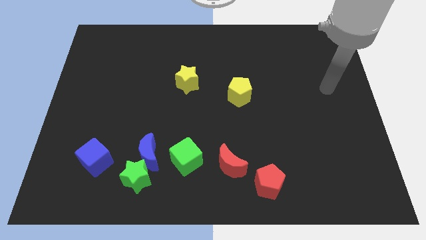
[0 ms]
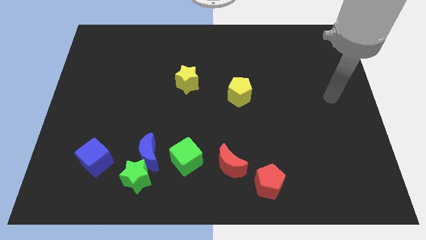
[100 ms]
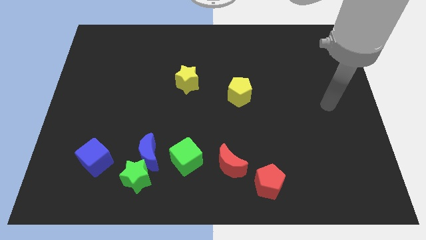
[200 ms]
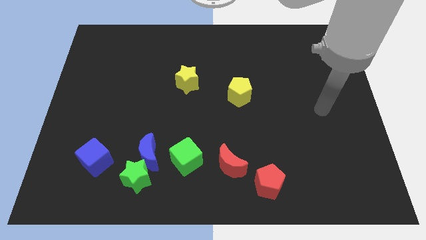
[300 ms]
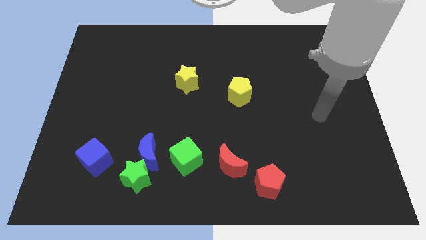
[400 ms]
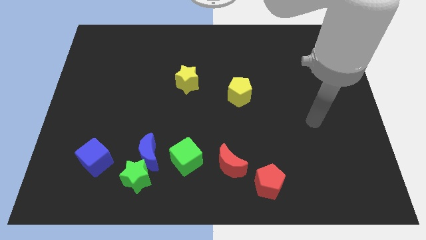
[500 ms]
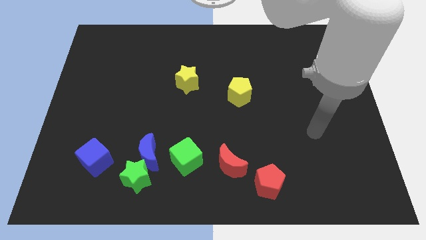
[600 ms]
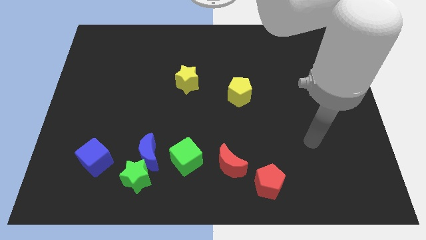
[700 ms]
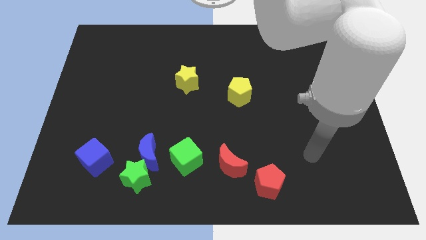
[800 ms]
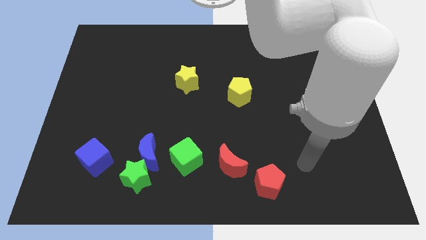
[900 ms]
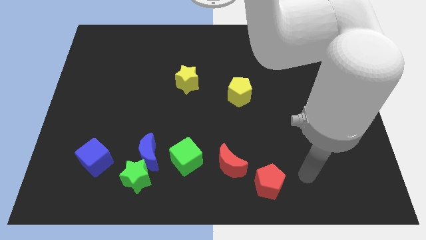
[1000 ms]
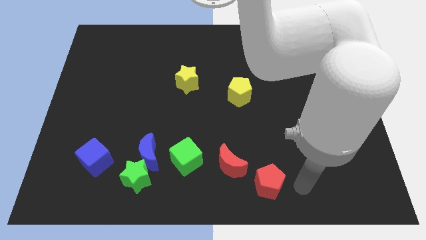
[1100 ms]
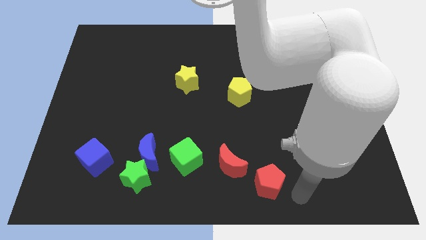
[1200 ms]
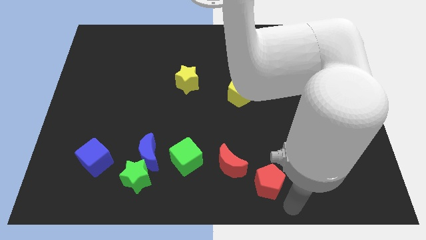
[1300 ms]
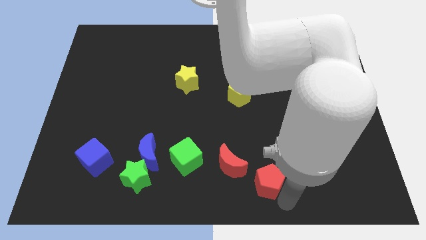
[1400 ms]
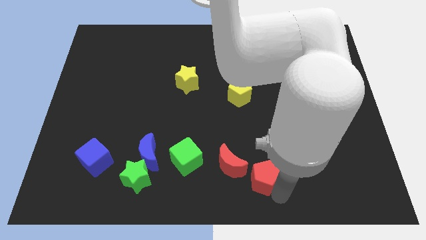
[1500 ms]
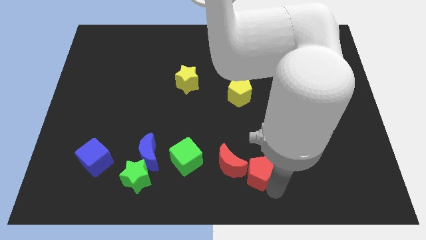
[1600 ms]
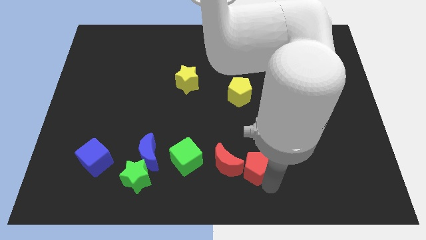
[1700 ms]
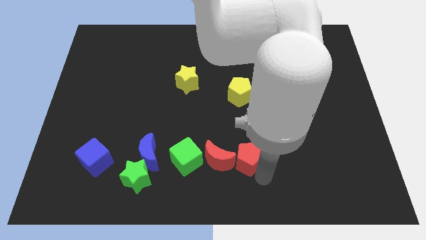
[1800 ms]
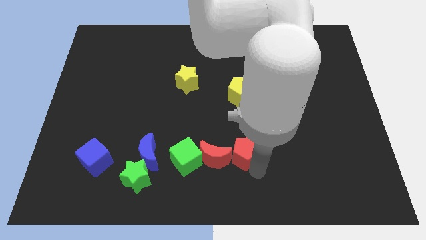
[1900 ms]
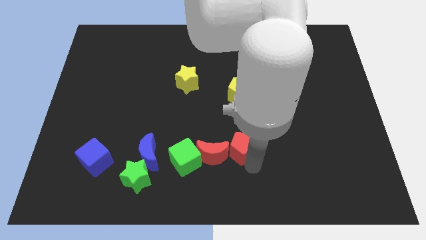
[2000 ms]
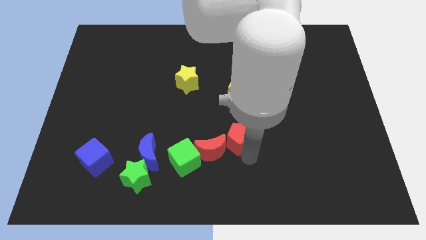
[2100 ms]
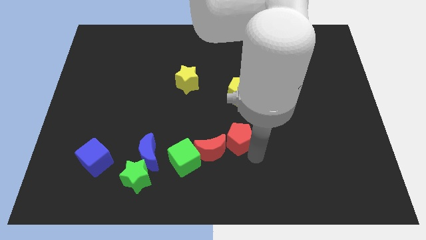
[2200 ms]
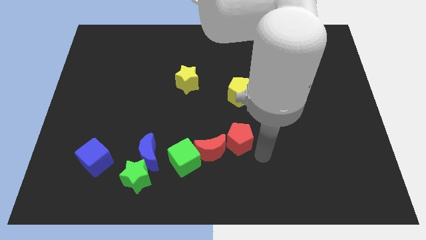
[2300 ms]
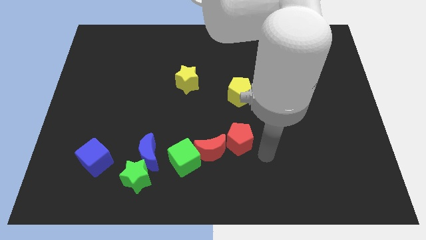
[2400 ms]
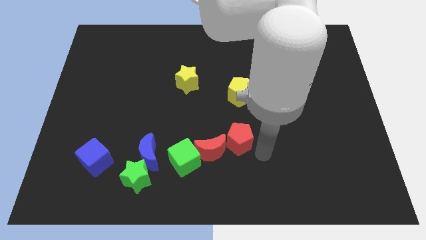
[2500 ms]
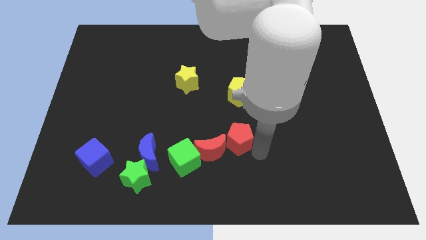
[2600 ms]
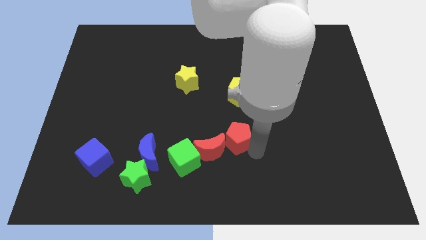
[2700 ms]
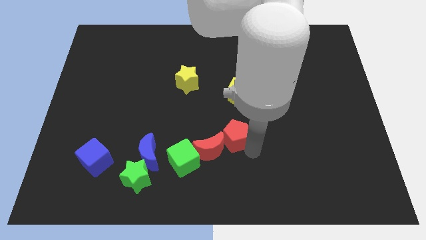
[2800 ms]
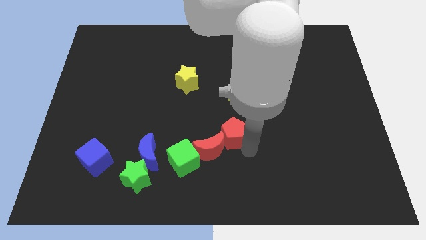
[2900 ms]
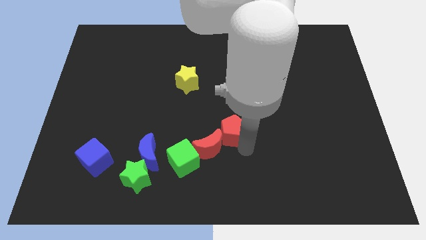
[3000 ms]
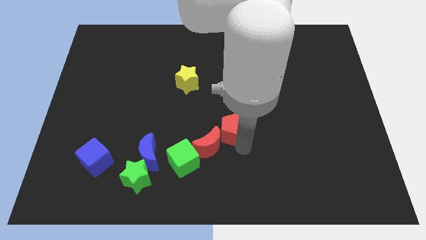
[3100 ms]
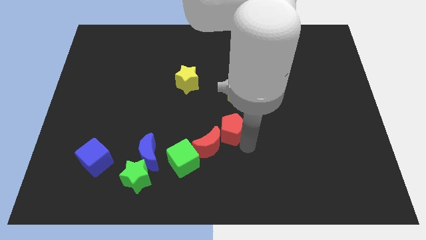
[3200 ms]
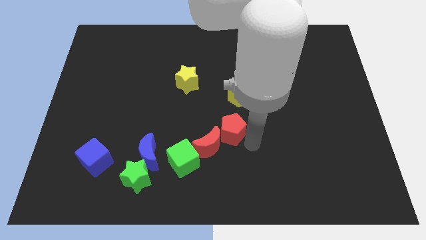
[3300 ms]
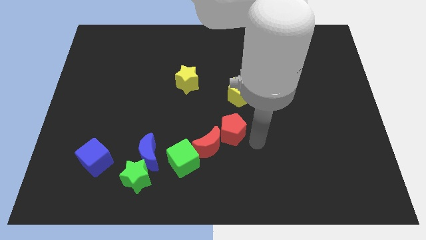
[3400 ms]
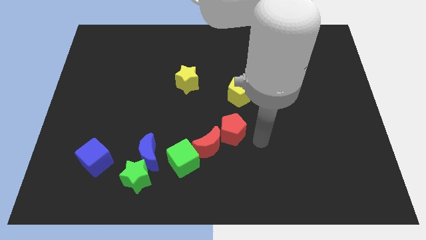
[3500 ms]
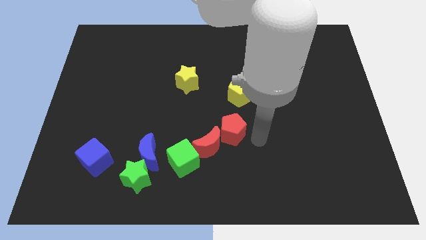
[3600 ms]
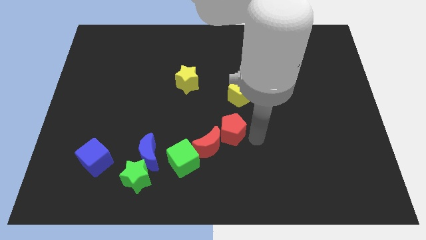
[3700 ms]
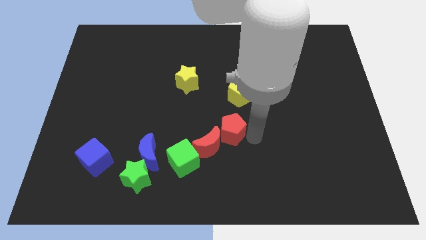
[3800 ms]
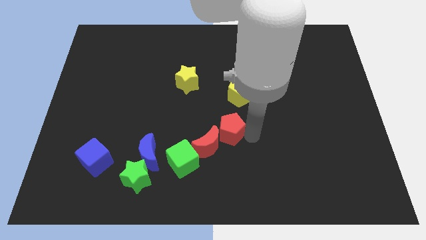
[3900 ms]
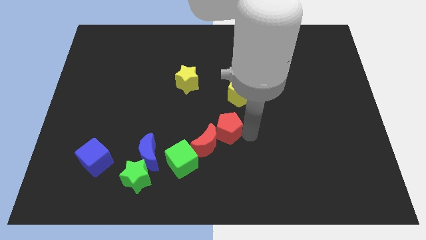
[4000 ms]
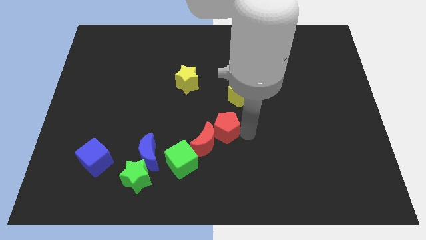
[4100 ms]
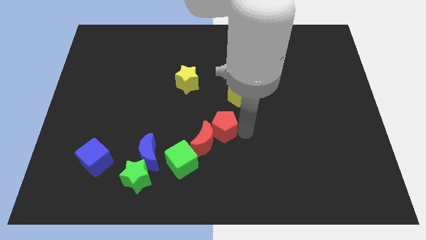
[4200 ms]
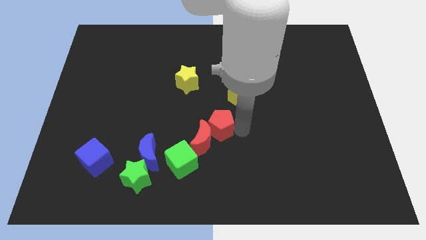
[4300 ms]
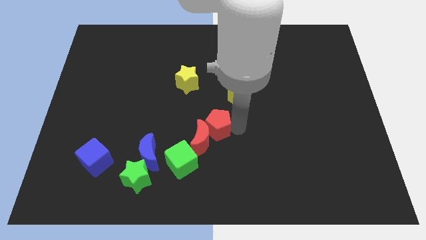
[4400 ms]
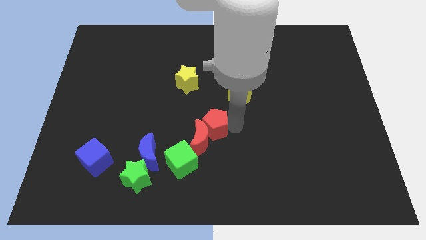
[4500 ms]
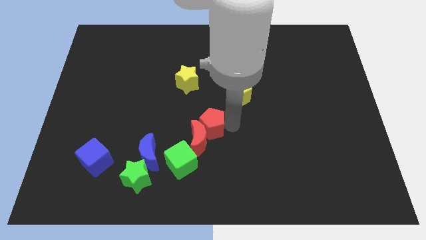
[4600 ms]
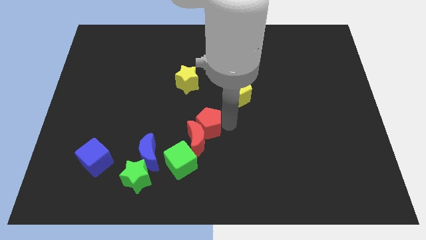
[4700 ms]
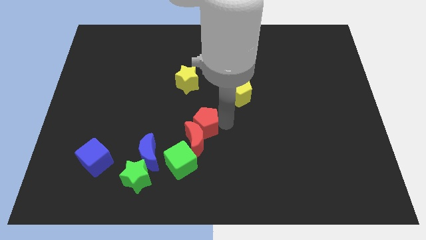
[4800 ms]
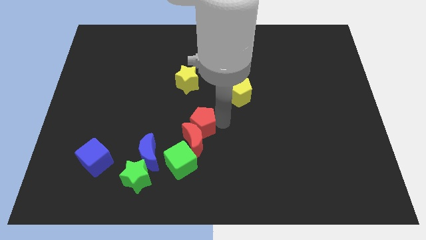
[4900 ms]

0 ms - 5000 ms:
slide the red pentagon up and then to the left

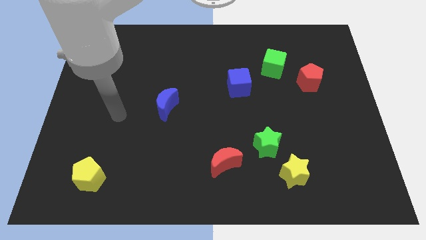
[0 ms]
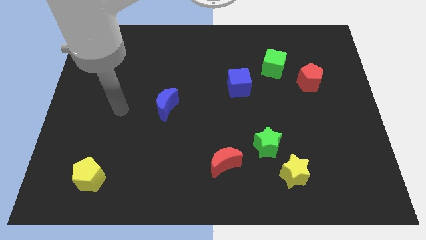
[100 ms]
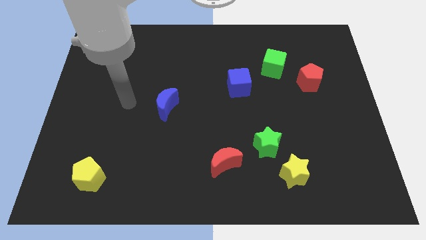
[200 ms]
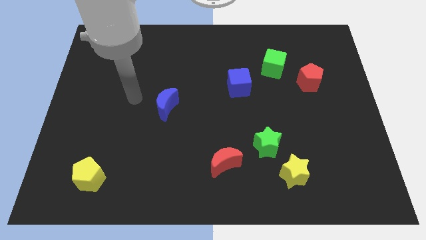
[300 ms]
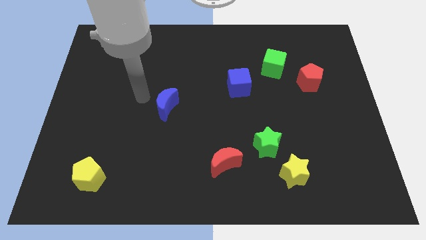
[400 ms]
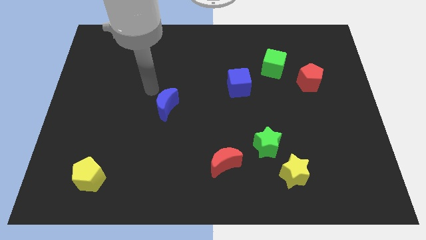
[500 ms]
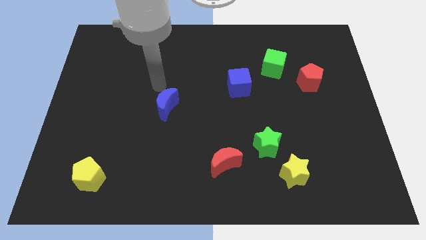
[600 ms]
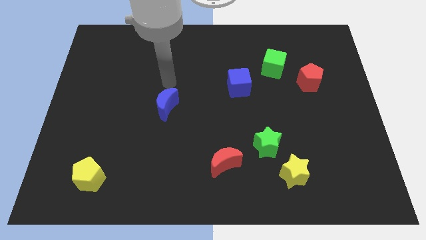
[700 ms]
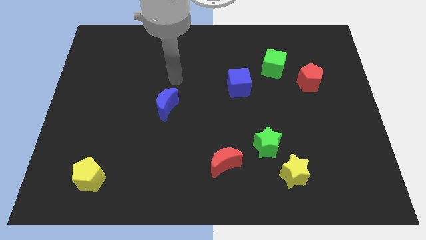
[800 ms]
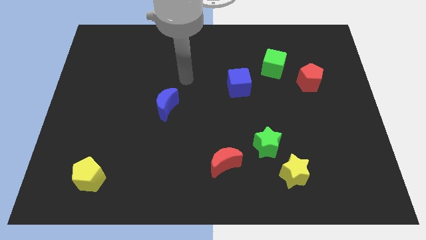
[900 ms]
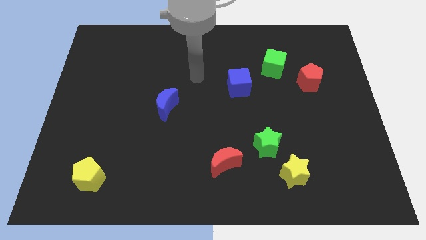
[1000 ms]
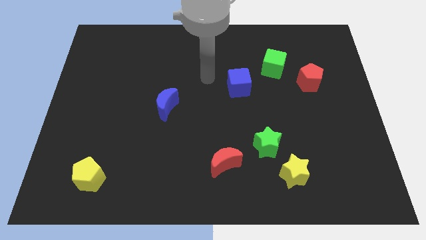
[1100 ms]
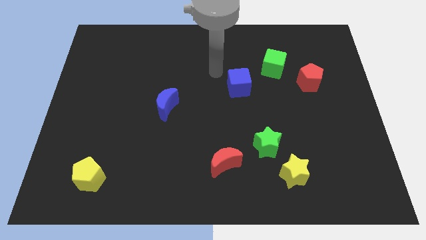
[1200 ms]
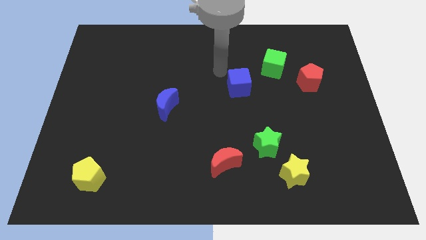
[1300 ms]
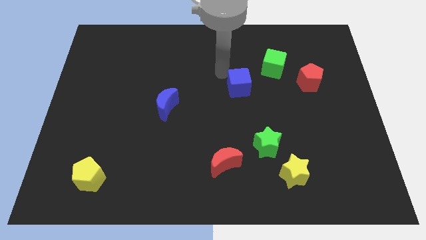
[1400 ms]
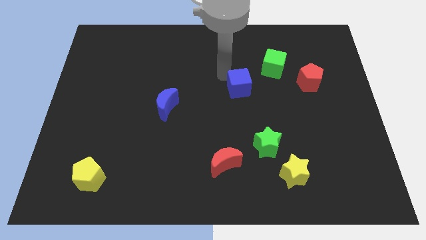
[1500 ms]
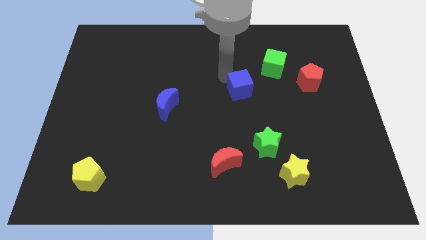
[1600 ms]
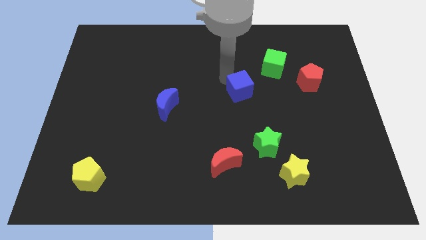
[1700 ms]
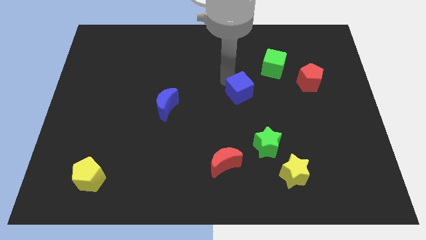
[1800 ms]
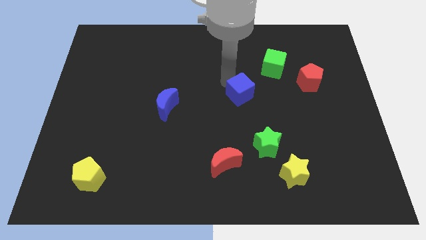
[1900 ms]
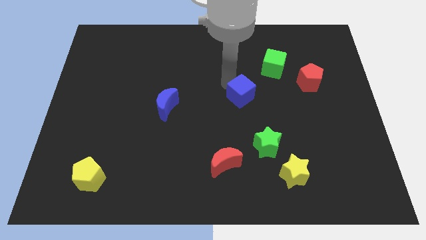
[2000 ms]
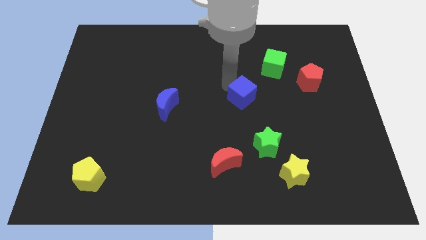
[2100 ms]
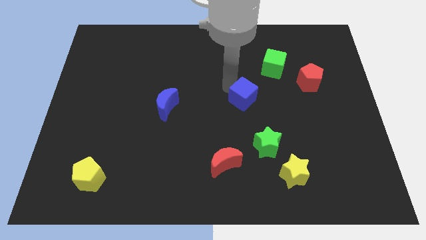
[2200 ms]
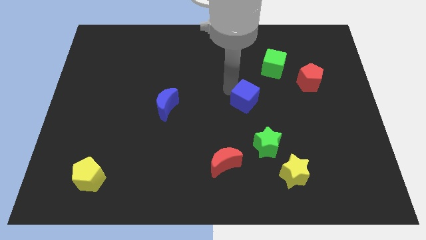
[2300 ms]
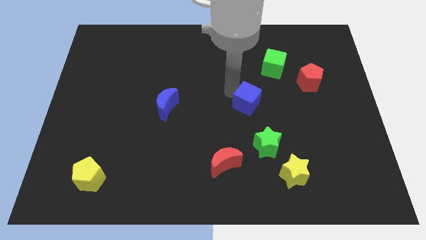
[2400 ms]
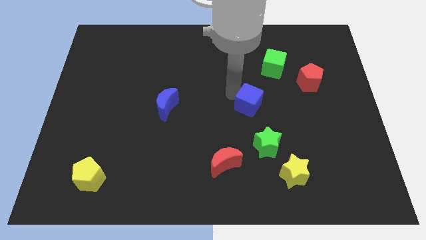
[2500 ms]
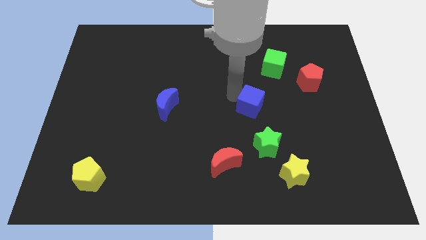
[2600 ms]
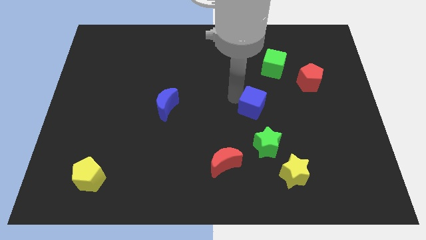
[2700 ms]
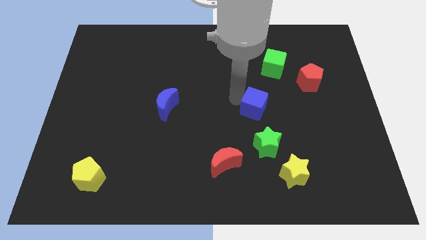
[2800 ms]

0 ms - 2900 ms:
slide the blue cube a little bit diagonally down and right

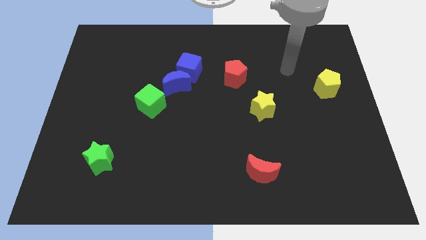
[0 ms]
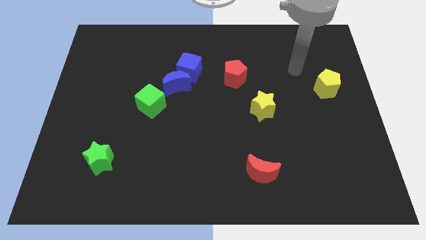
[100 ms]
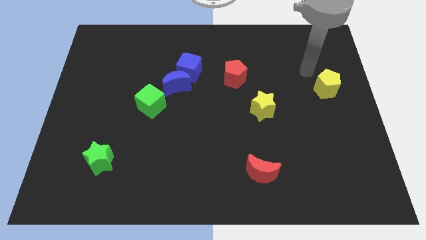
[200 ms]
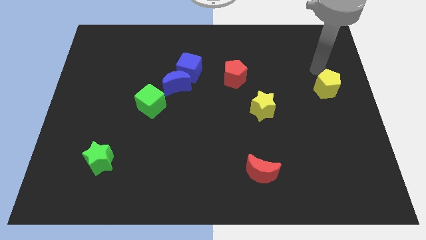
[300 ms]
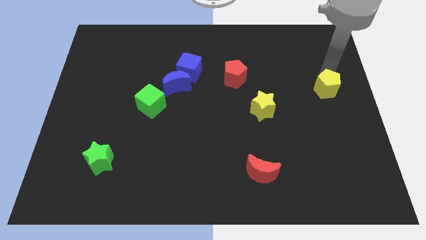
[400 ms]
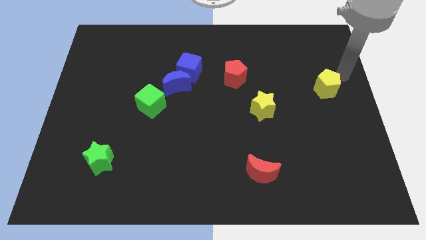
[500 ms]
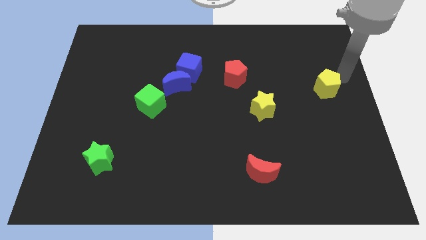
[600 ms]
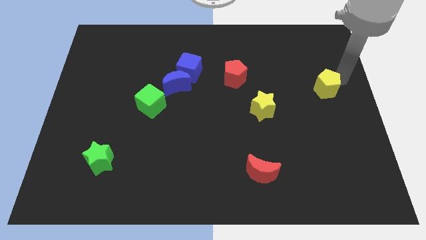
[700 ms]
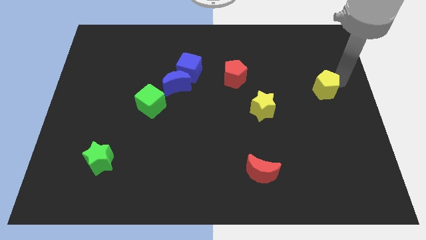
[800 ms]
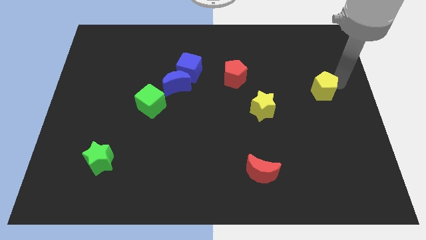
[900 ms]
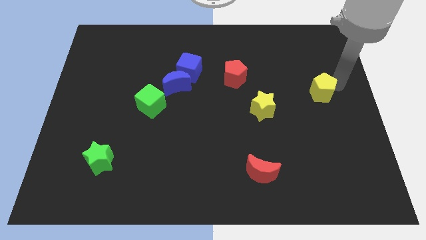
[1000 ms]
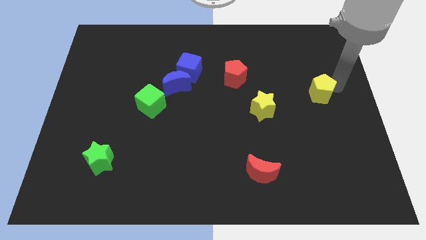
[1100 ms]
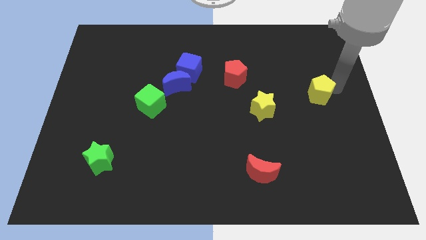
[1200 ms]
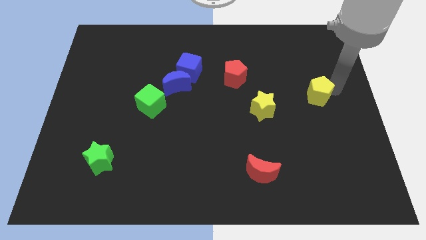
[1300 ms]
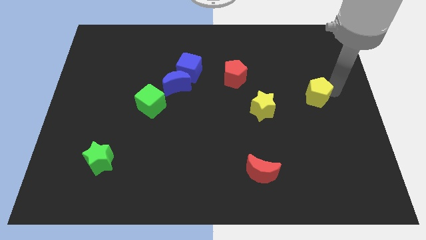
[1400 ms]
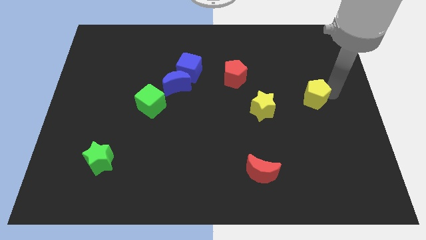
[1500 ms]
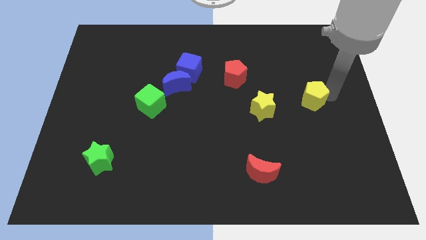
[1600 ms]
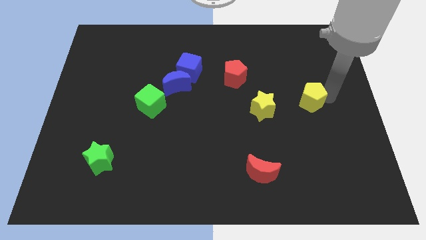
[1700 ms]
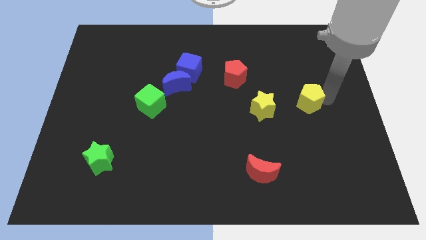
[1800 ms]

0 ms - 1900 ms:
push the yellow pentagon down and left diagonally a little bit
